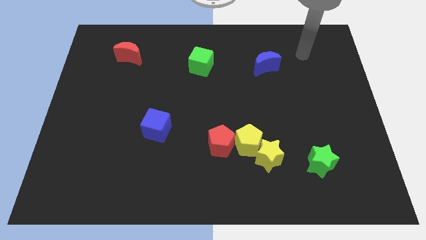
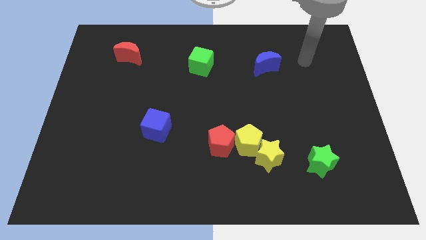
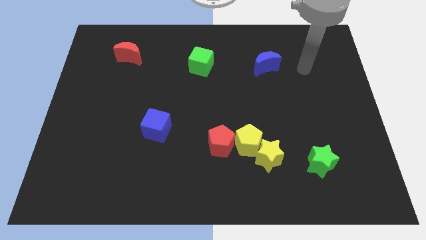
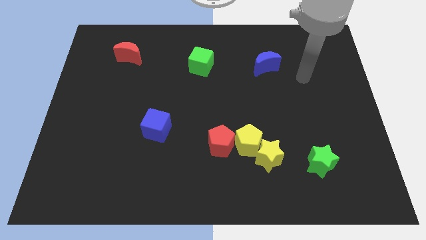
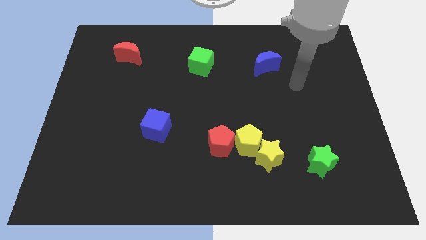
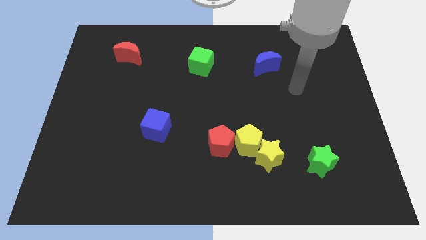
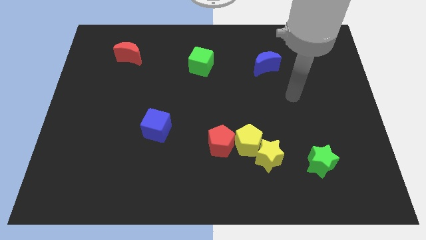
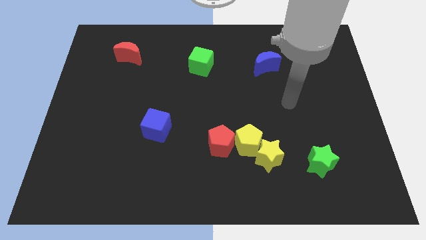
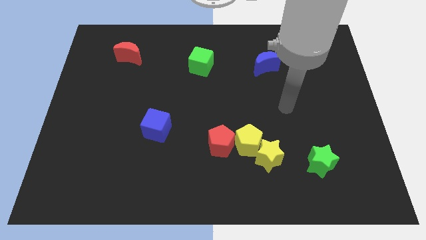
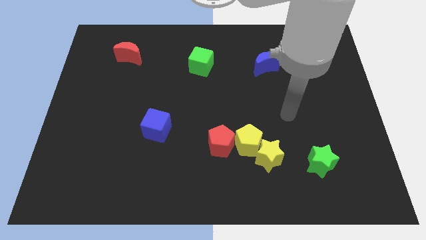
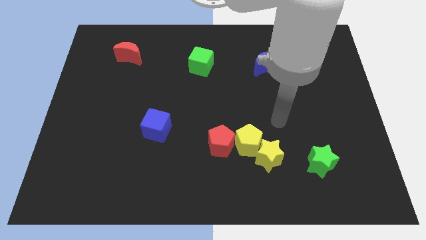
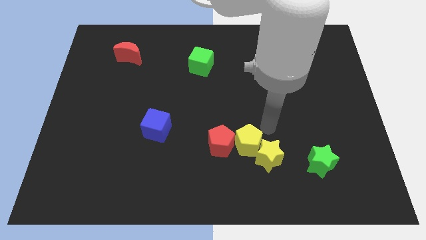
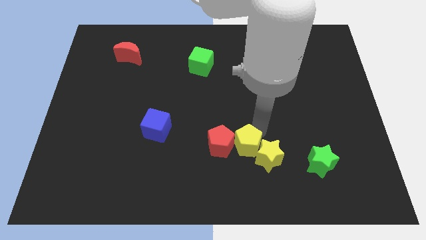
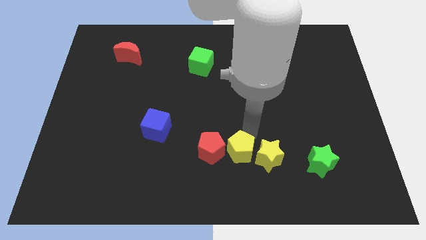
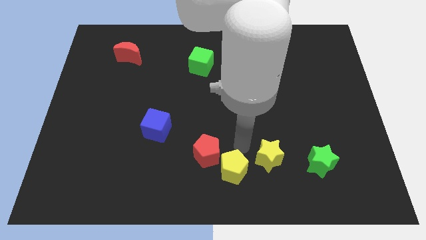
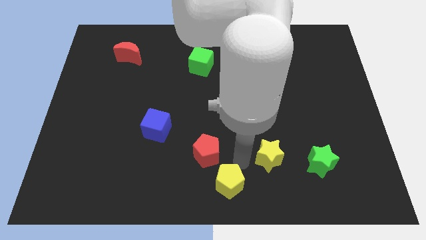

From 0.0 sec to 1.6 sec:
separate the yellow star from the yellow pentagon

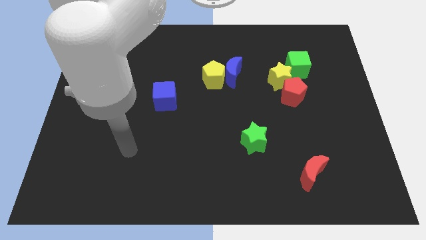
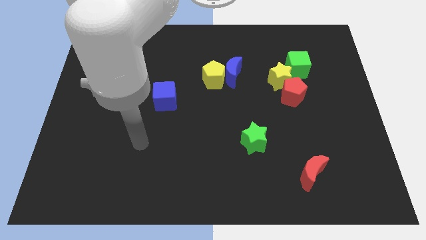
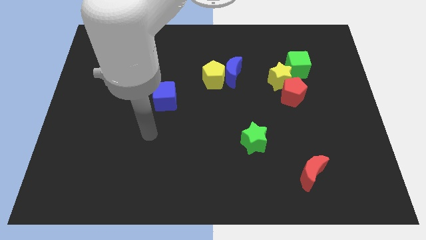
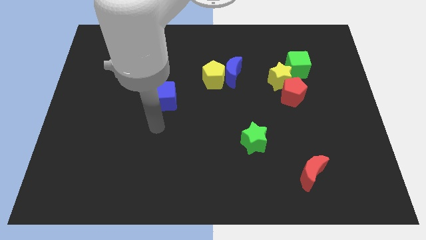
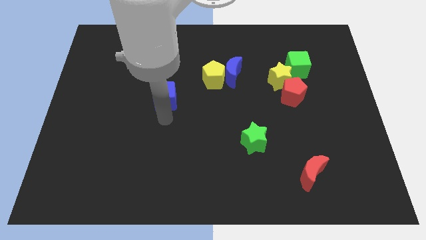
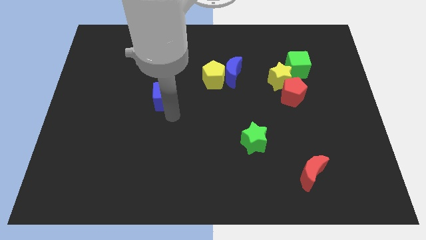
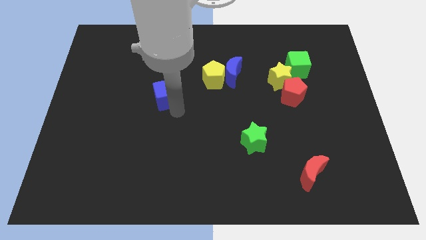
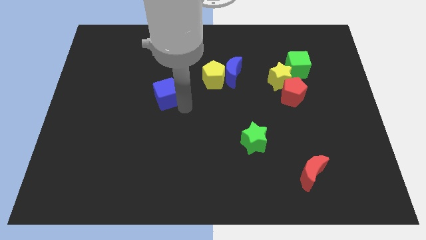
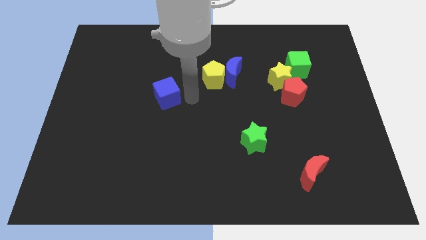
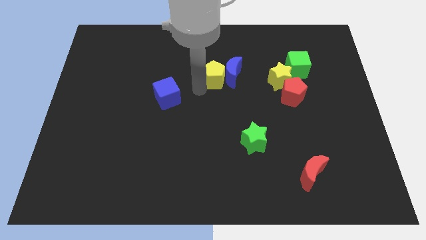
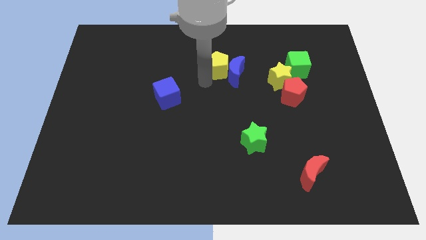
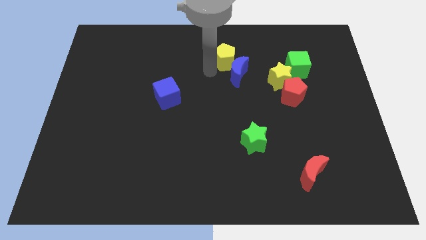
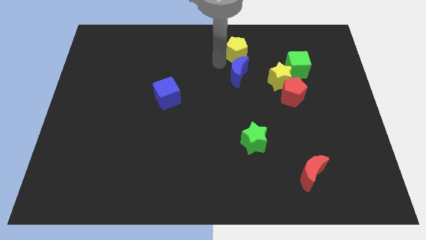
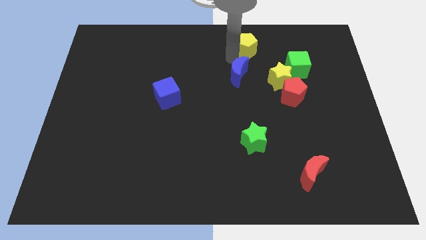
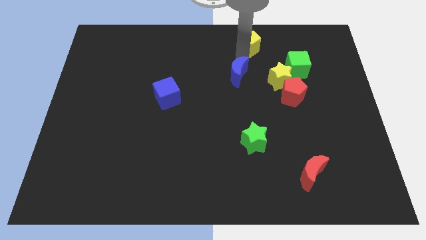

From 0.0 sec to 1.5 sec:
pull the blue moon apart from the yellow pentagon

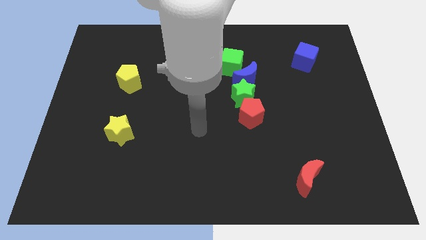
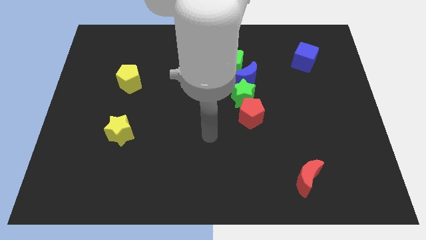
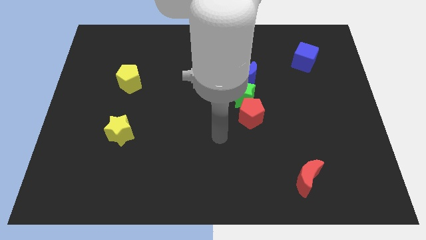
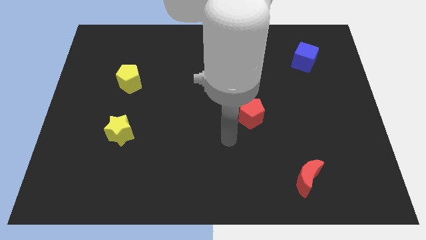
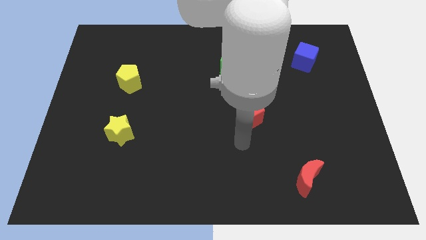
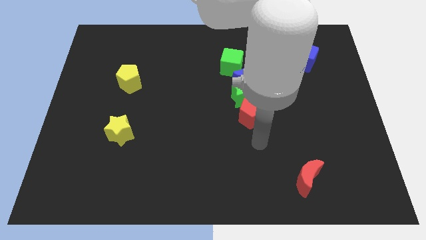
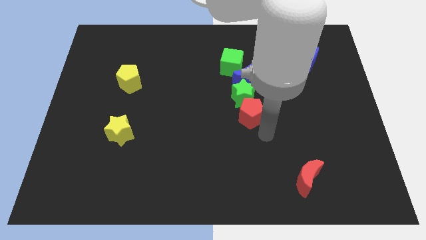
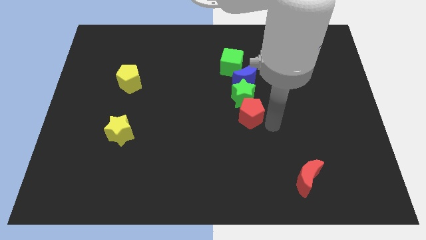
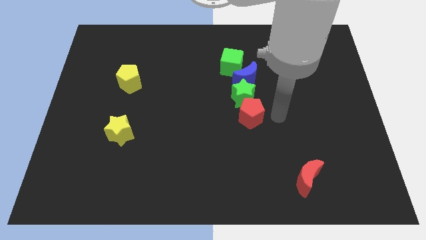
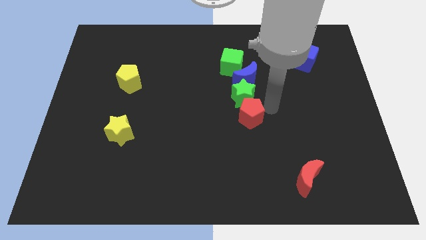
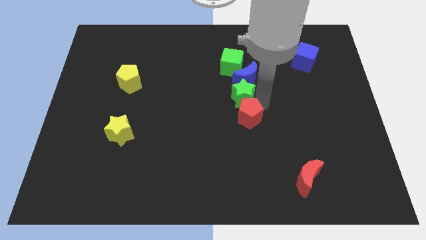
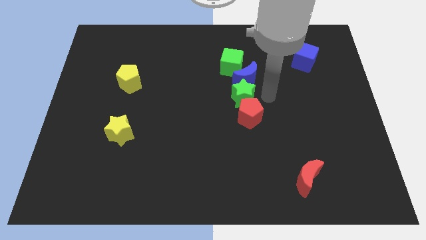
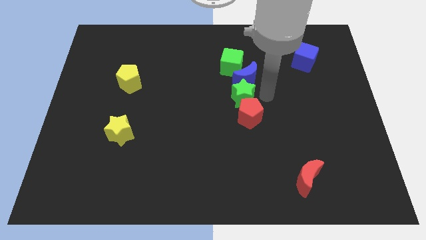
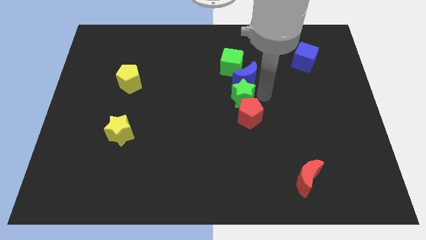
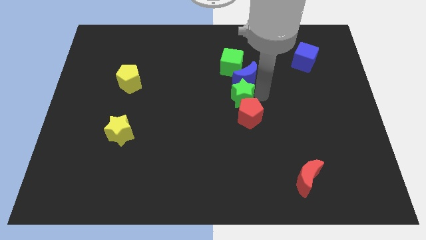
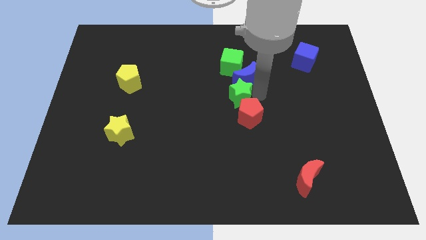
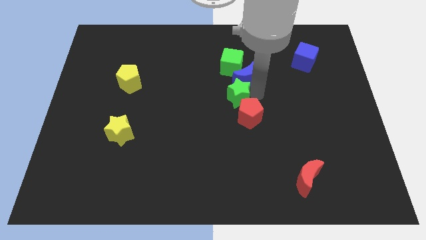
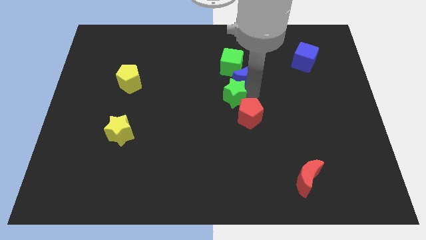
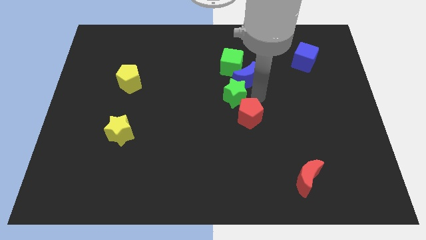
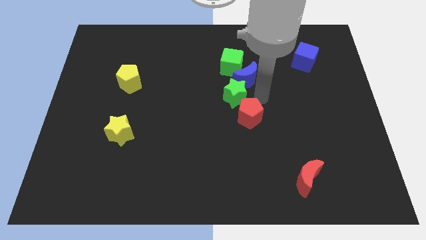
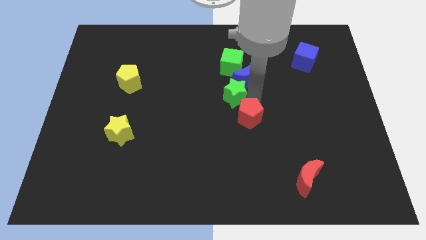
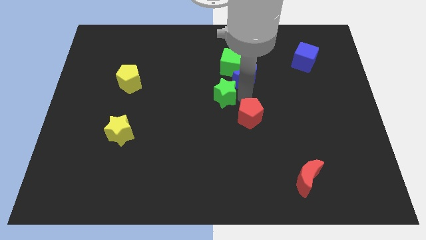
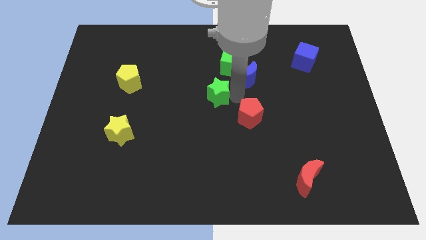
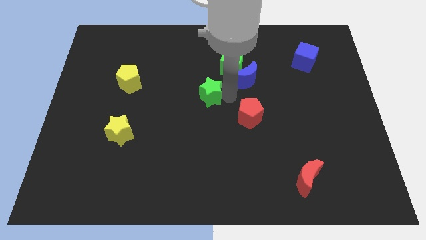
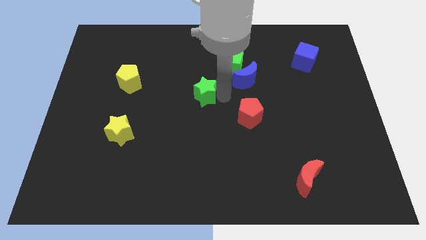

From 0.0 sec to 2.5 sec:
move the green star away from the blue moon and red pentagon

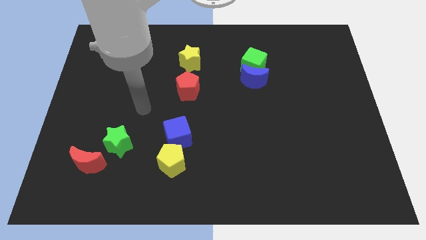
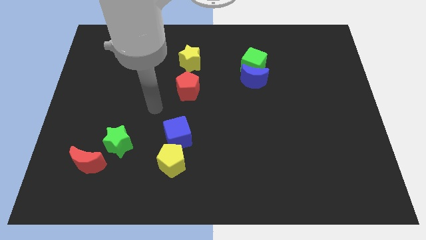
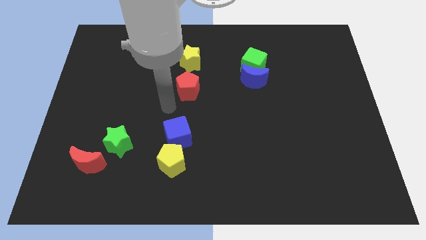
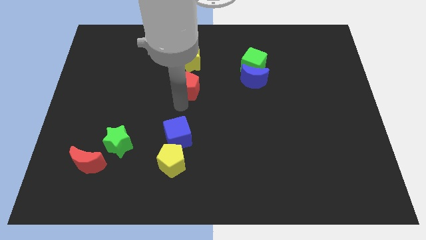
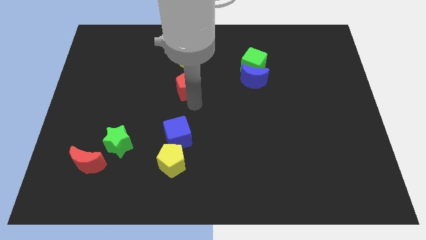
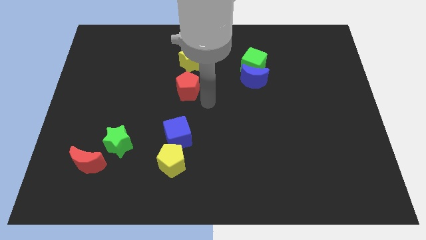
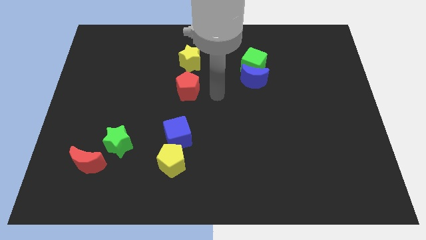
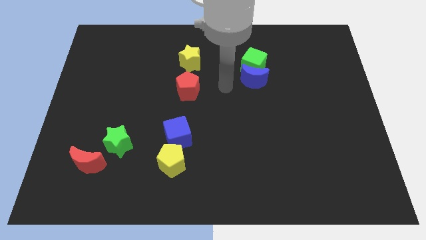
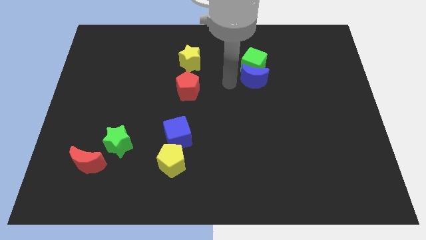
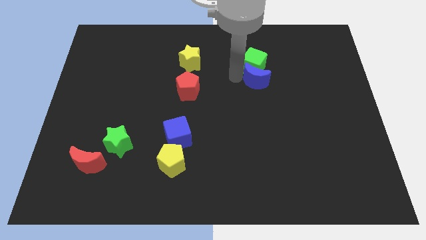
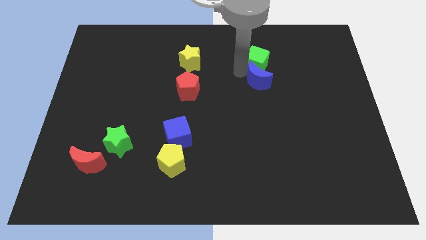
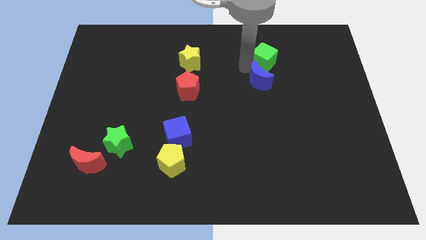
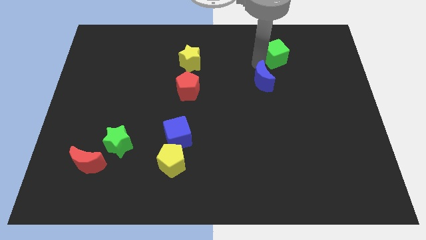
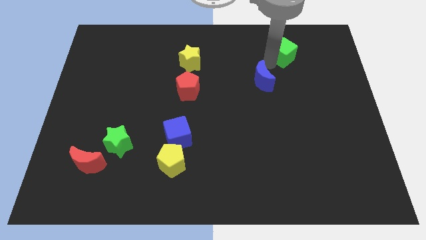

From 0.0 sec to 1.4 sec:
move the blue moon away from the green cube

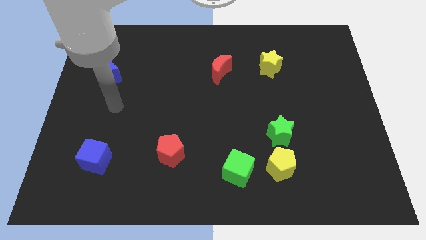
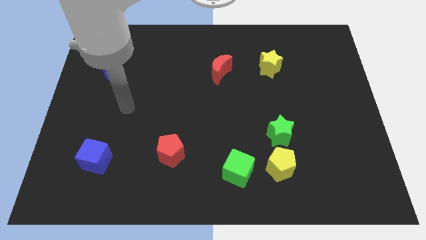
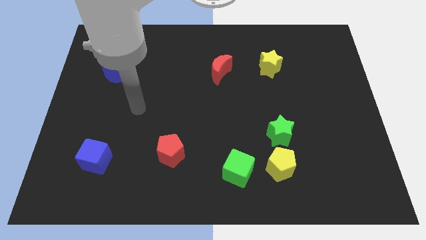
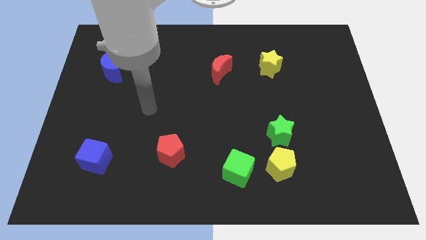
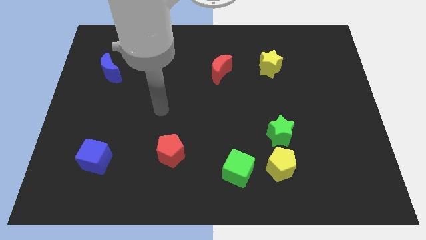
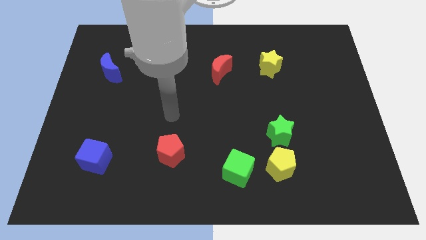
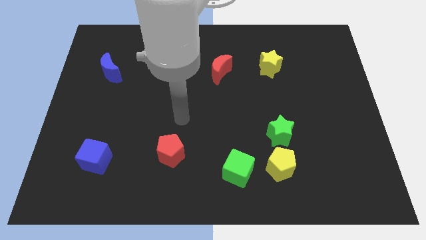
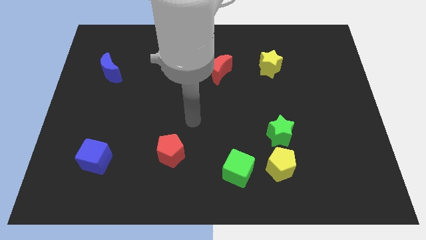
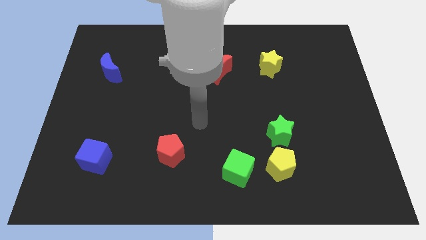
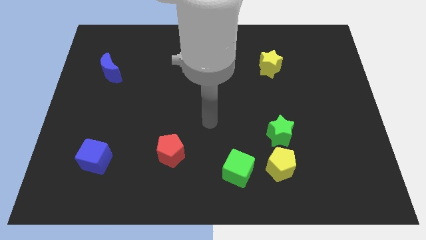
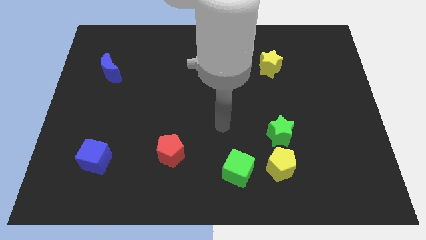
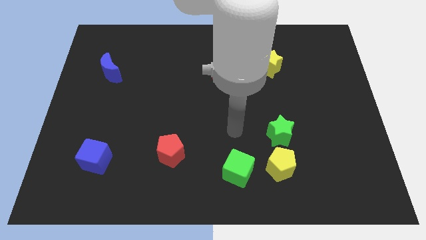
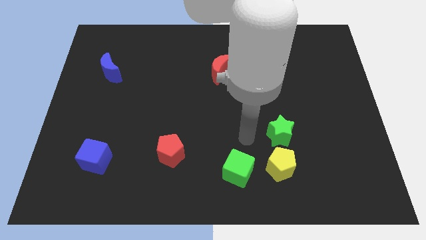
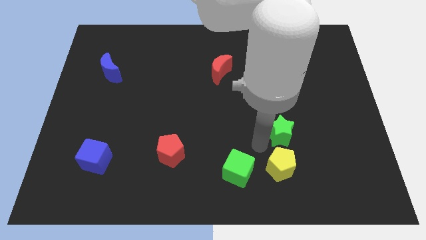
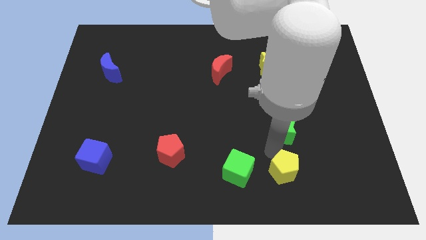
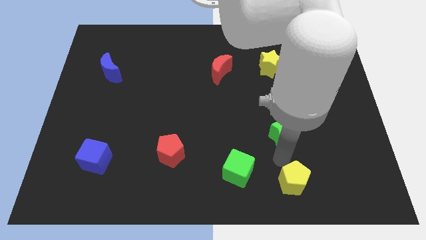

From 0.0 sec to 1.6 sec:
separate the green star from the yellow pentagon

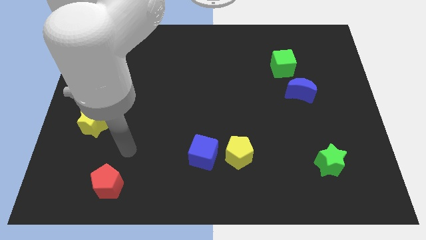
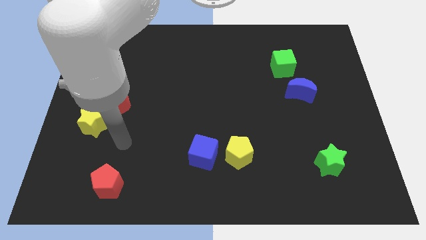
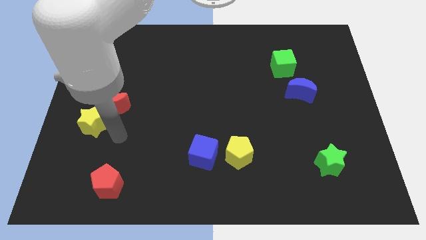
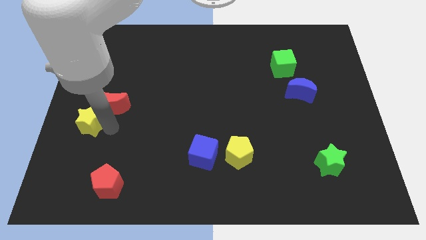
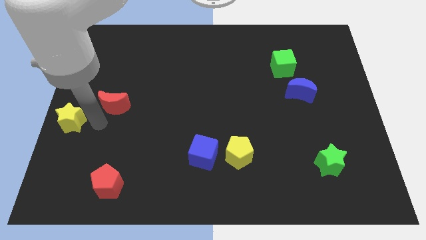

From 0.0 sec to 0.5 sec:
move the red moon away from the yellow star

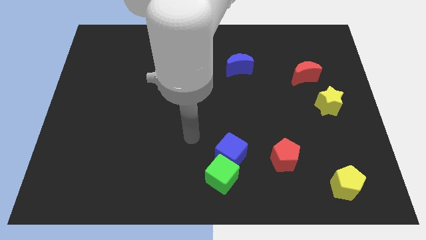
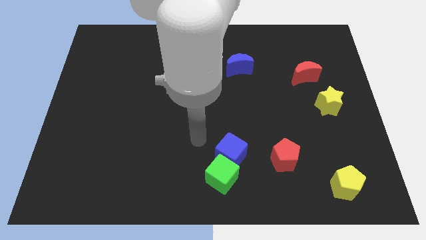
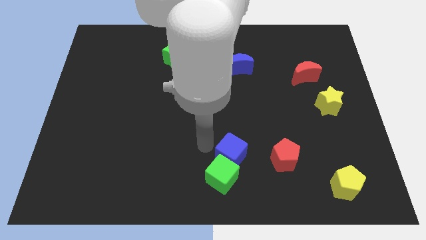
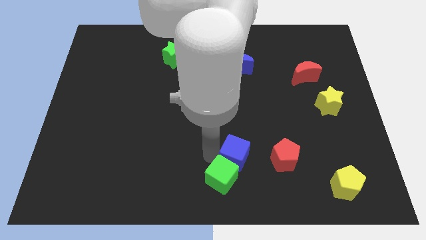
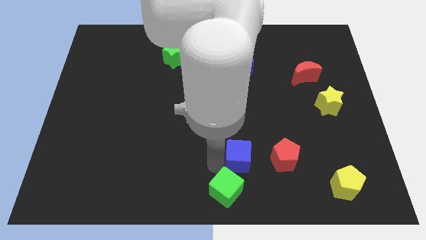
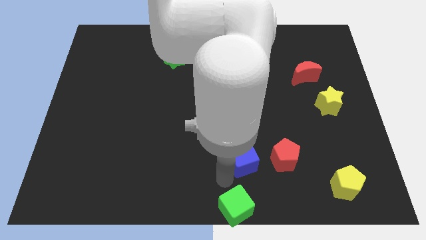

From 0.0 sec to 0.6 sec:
pull the blue cube apart from the green cube
